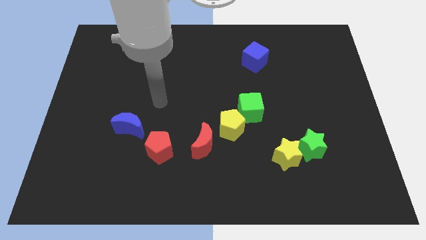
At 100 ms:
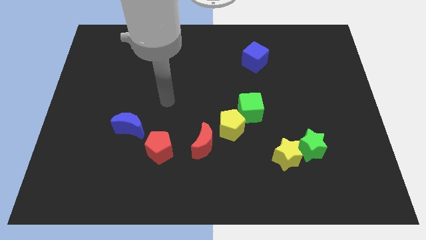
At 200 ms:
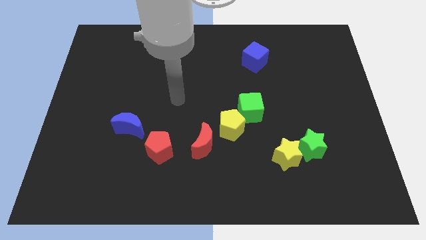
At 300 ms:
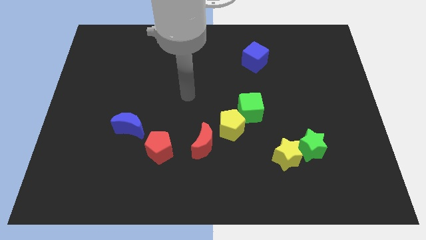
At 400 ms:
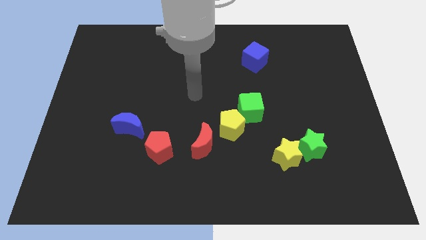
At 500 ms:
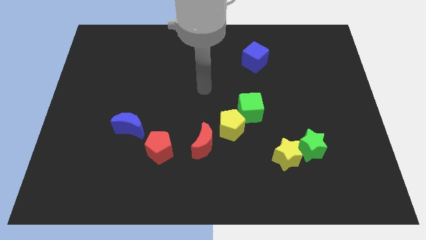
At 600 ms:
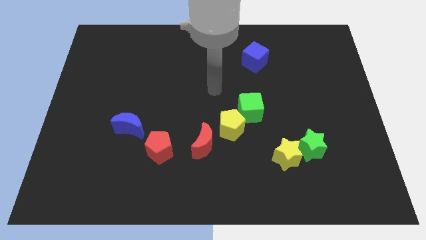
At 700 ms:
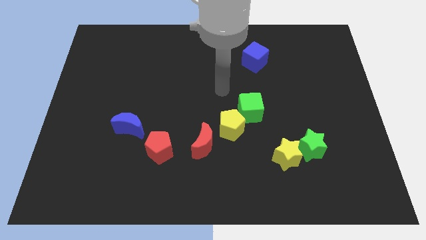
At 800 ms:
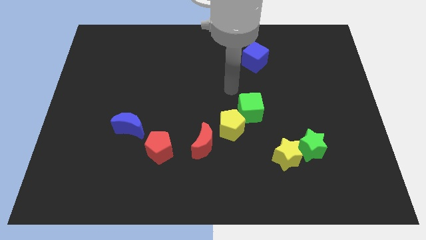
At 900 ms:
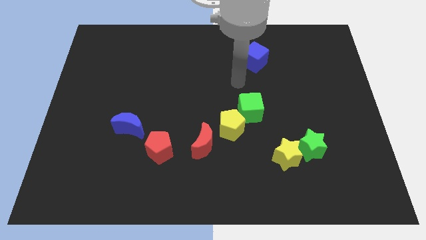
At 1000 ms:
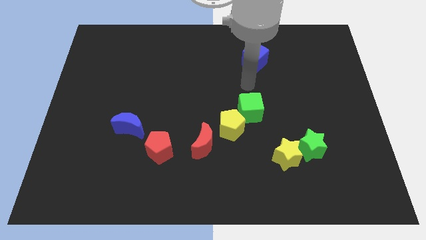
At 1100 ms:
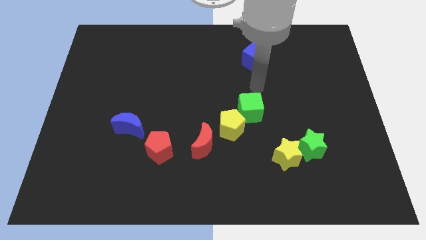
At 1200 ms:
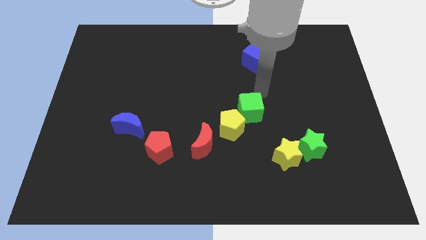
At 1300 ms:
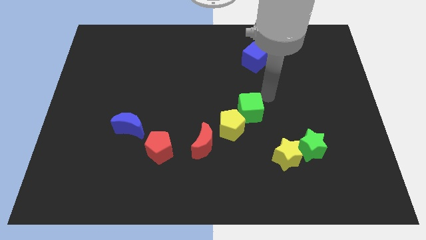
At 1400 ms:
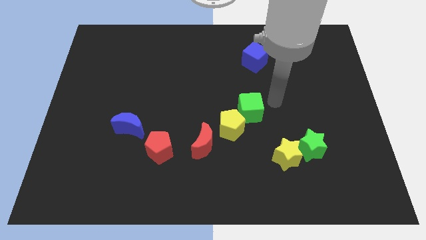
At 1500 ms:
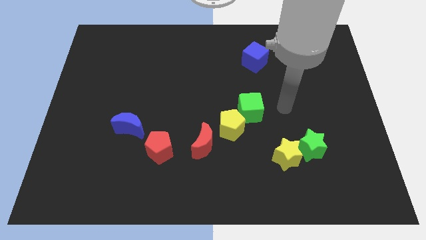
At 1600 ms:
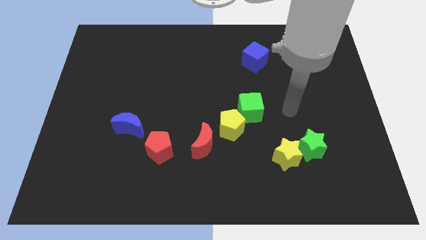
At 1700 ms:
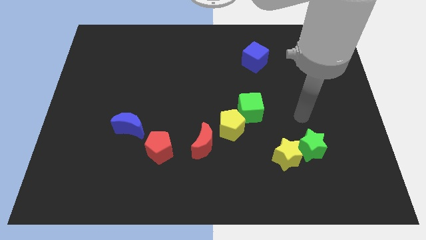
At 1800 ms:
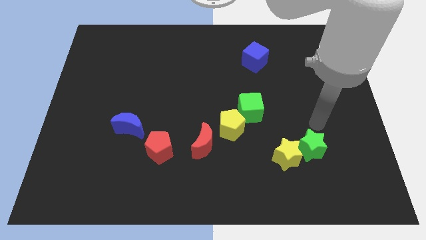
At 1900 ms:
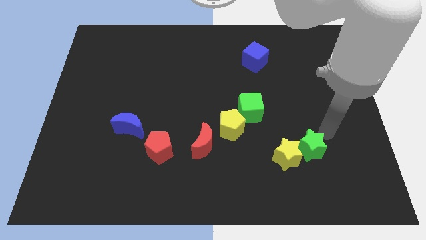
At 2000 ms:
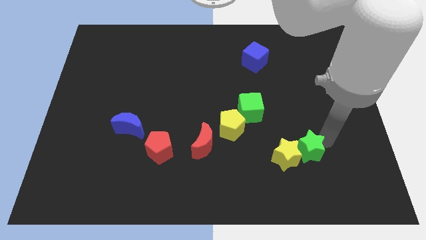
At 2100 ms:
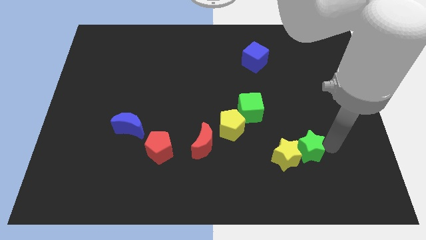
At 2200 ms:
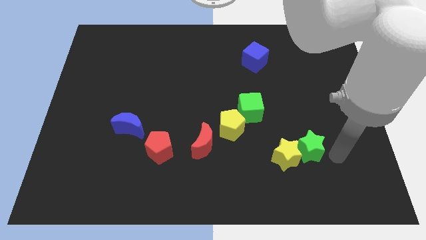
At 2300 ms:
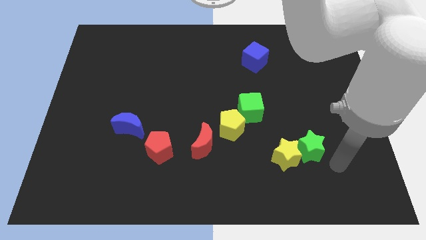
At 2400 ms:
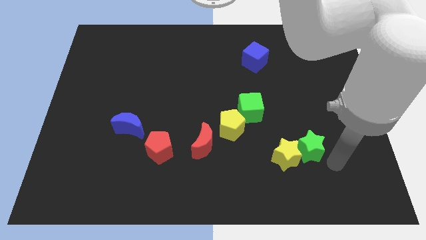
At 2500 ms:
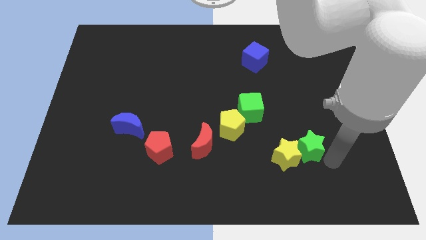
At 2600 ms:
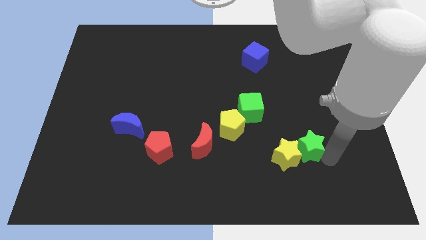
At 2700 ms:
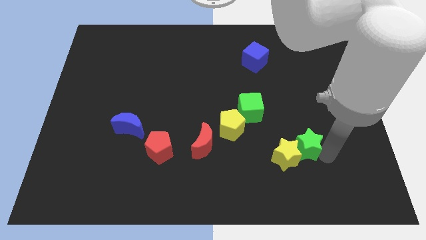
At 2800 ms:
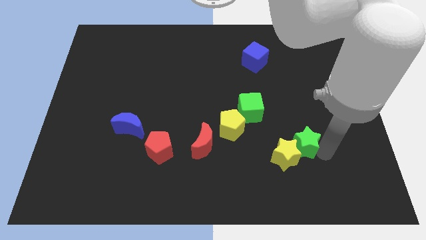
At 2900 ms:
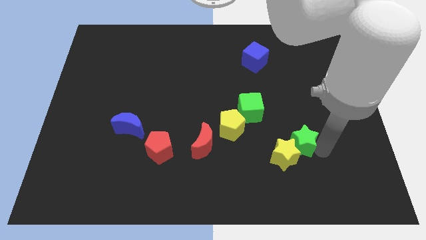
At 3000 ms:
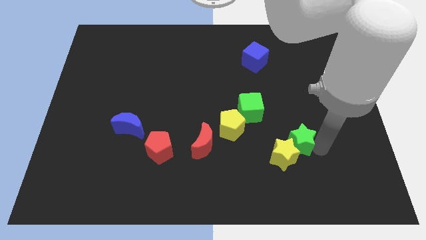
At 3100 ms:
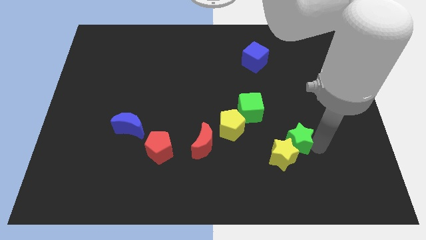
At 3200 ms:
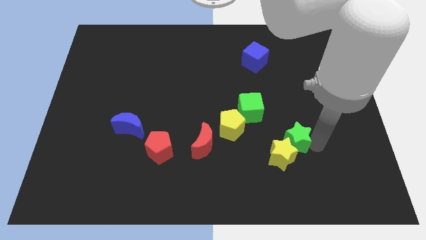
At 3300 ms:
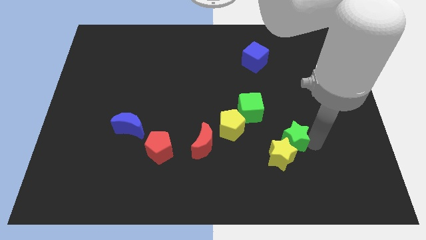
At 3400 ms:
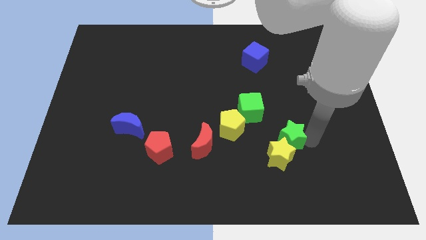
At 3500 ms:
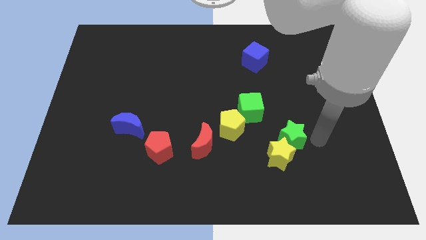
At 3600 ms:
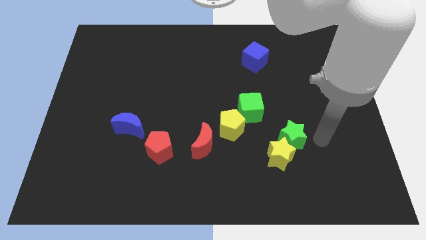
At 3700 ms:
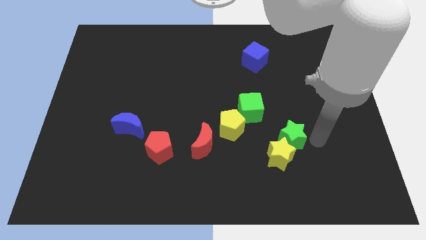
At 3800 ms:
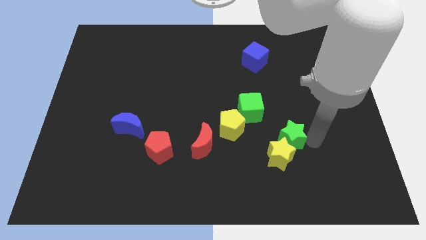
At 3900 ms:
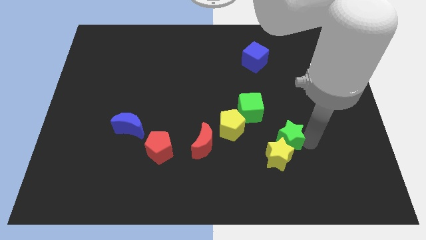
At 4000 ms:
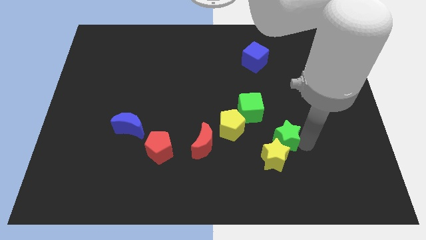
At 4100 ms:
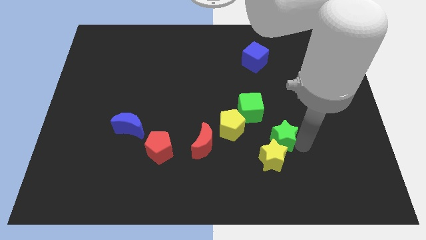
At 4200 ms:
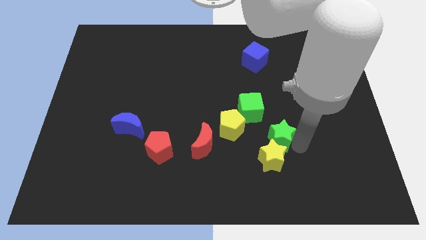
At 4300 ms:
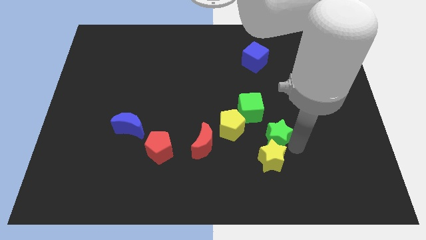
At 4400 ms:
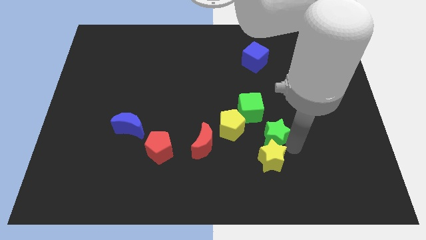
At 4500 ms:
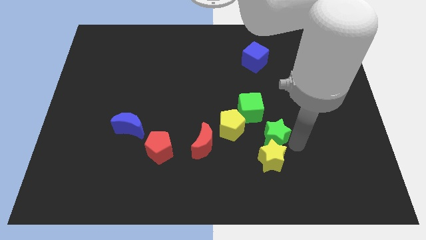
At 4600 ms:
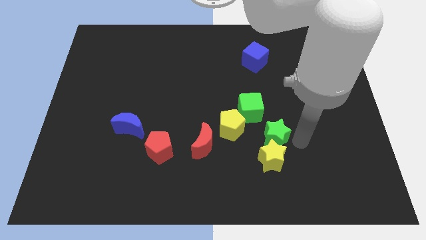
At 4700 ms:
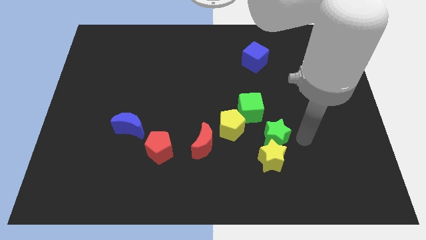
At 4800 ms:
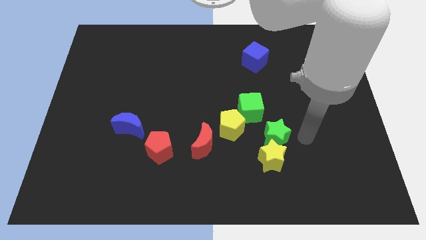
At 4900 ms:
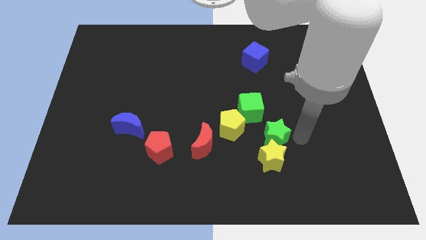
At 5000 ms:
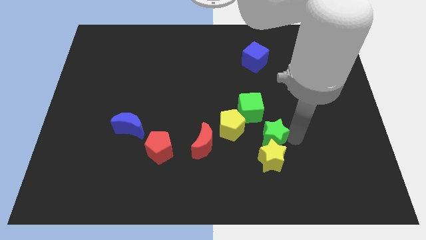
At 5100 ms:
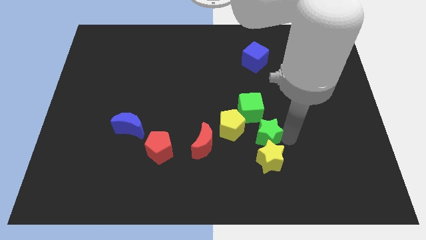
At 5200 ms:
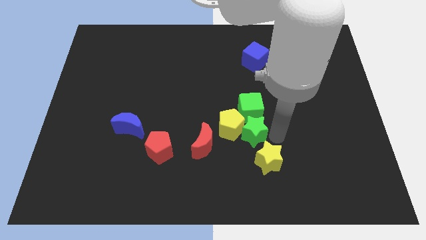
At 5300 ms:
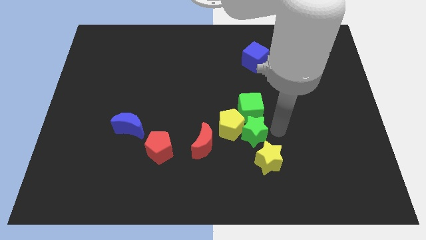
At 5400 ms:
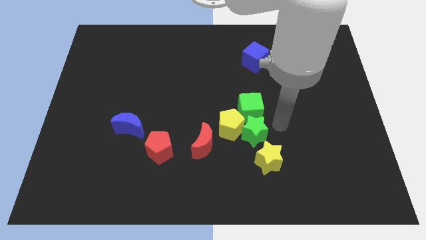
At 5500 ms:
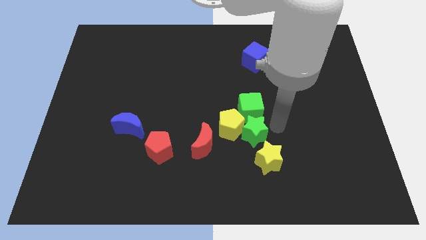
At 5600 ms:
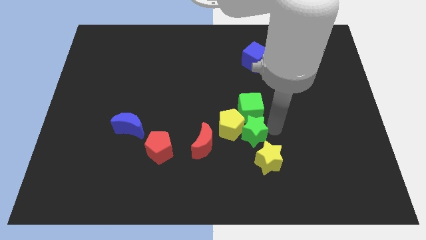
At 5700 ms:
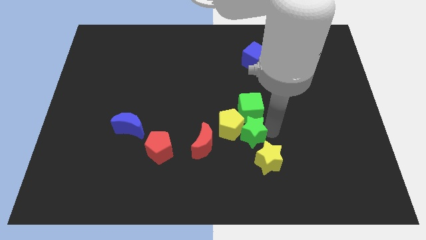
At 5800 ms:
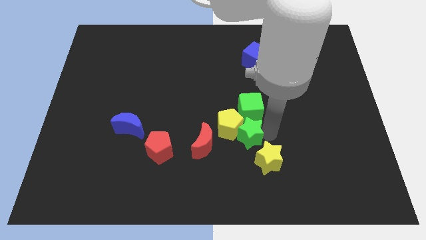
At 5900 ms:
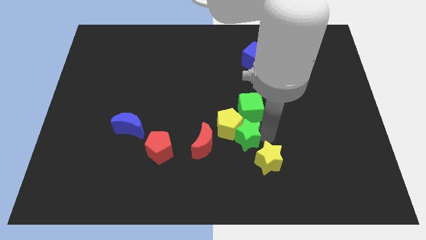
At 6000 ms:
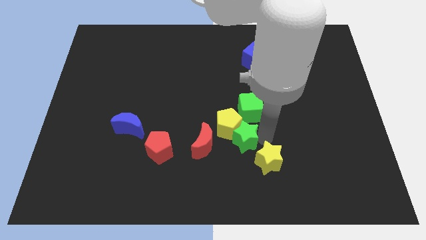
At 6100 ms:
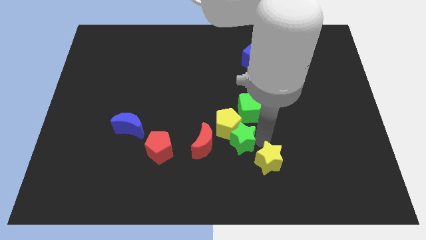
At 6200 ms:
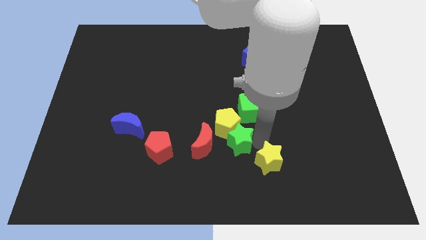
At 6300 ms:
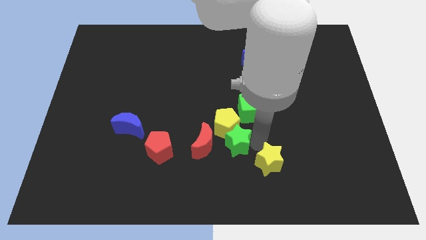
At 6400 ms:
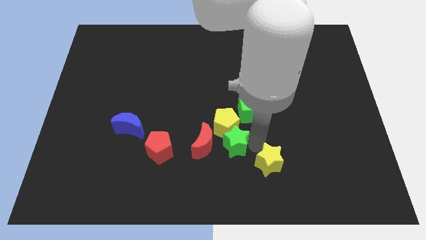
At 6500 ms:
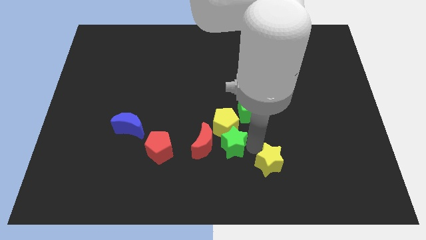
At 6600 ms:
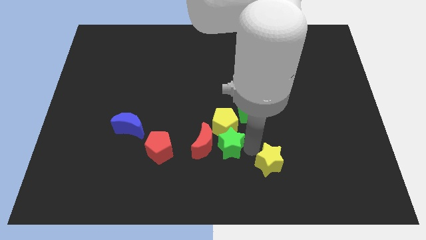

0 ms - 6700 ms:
push the green star close to the red moon

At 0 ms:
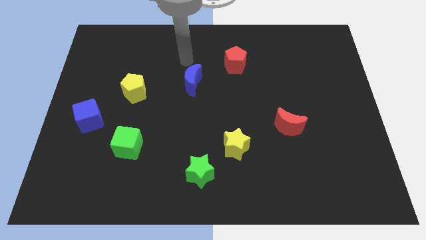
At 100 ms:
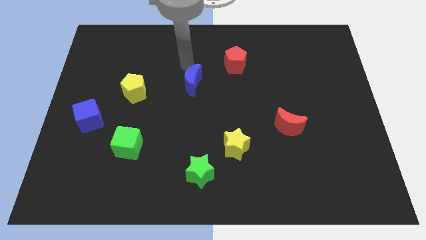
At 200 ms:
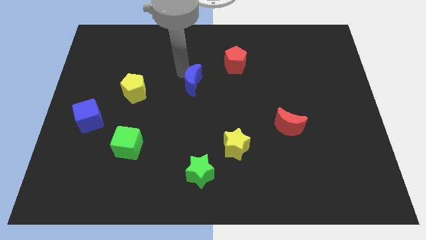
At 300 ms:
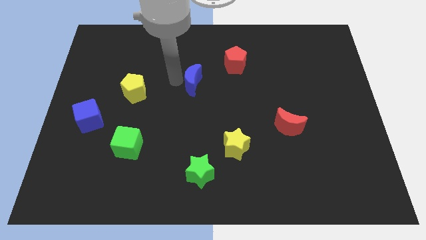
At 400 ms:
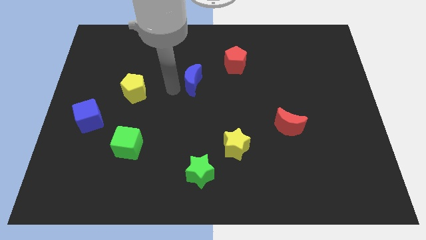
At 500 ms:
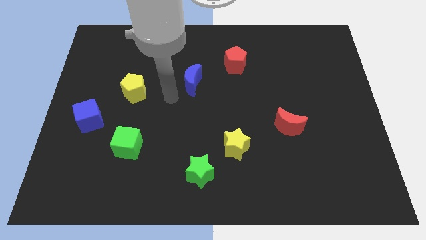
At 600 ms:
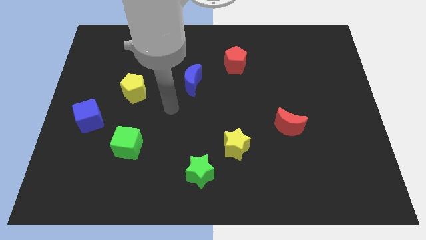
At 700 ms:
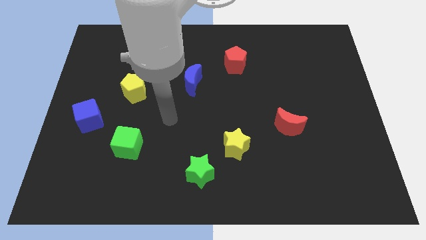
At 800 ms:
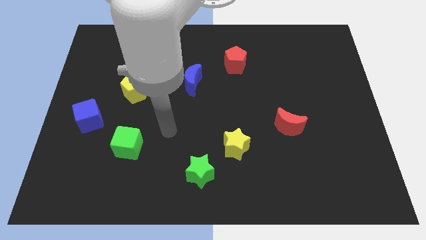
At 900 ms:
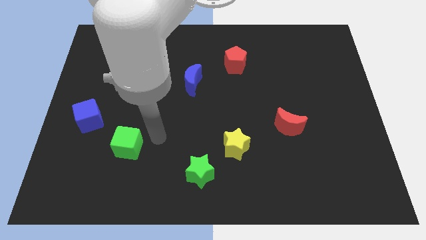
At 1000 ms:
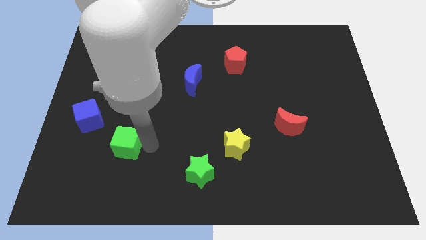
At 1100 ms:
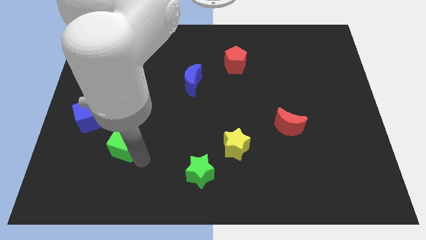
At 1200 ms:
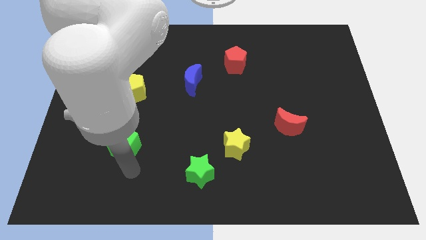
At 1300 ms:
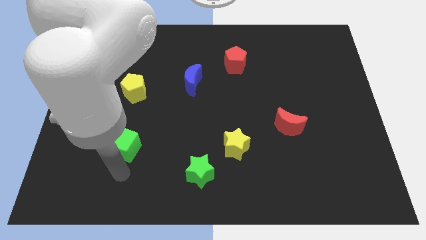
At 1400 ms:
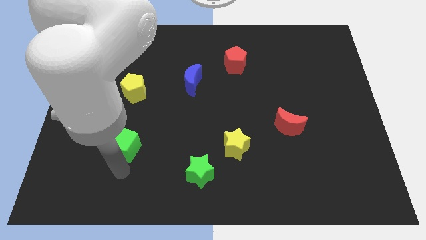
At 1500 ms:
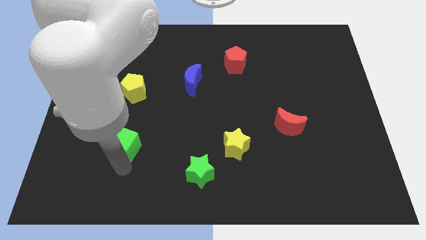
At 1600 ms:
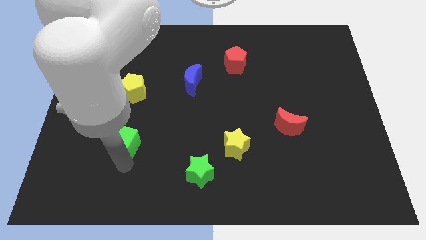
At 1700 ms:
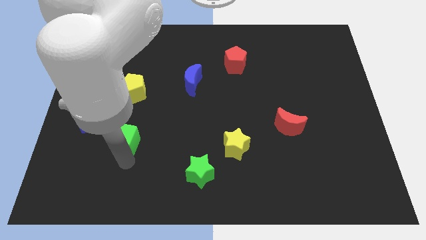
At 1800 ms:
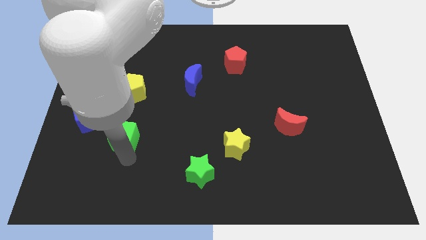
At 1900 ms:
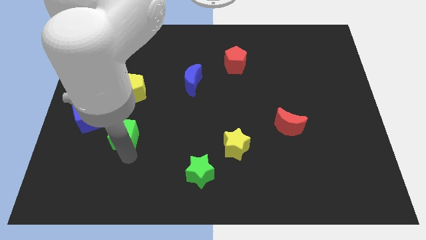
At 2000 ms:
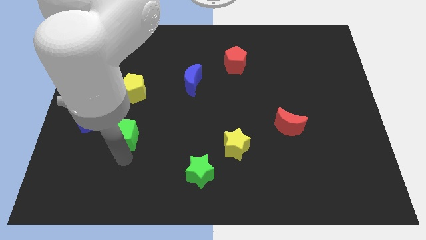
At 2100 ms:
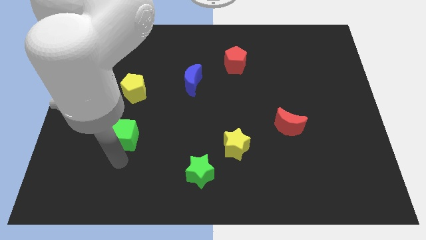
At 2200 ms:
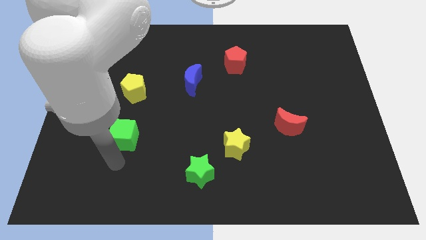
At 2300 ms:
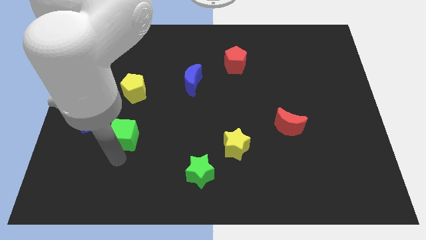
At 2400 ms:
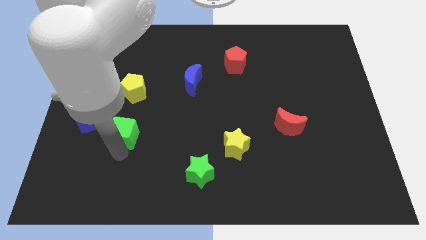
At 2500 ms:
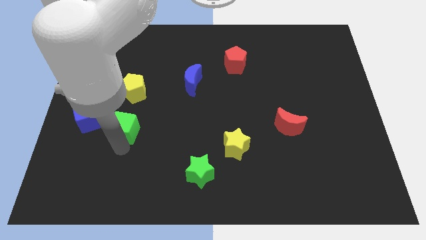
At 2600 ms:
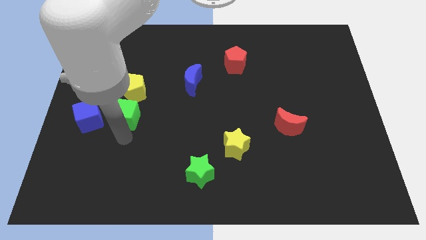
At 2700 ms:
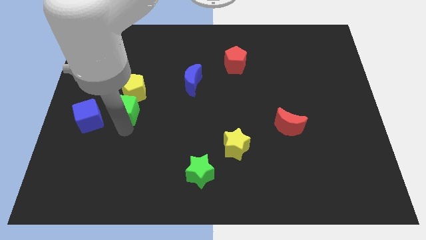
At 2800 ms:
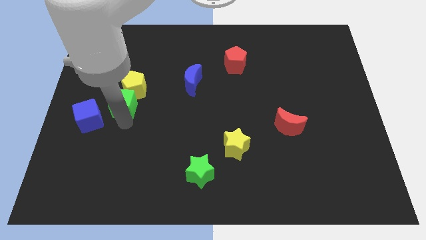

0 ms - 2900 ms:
put the green cube towards the yellow pentagon
